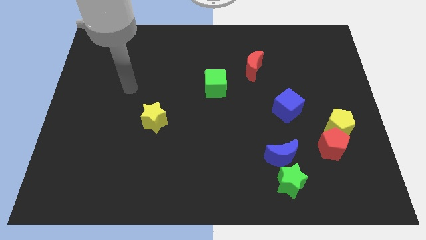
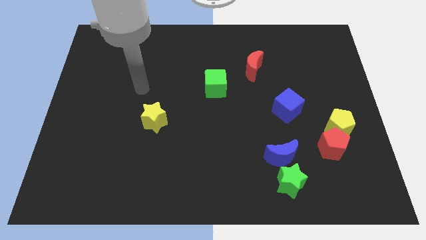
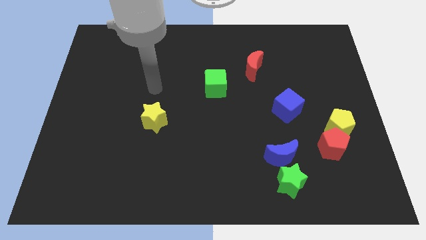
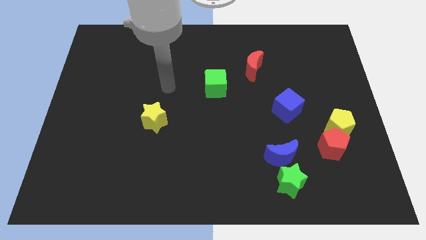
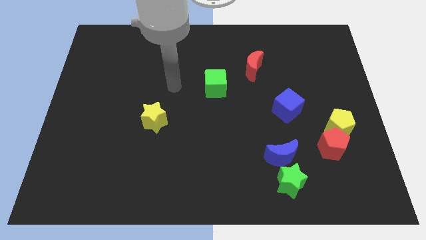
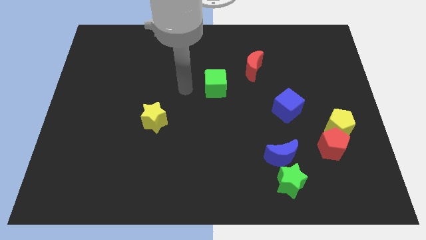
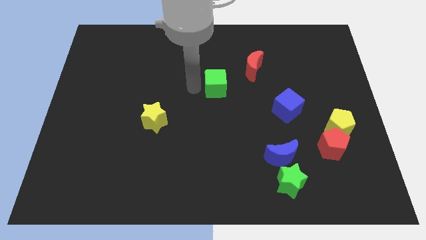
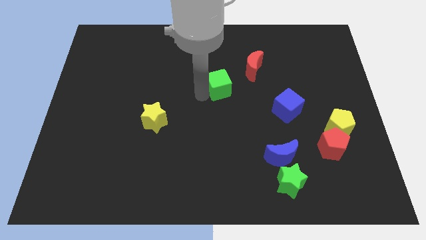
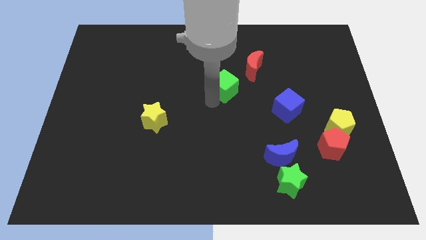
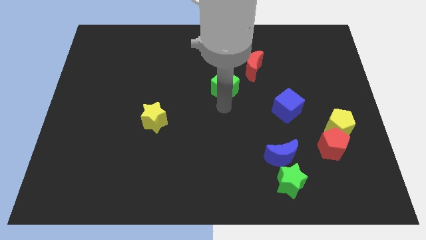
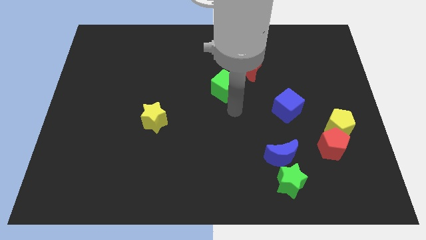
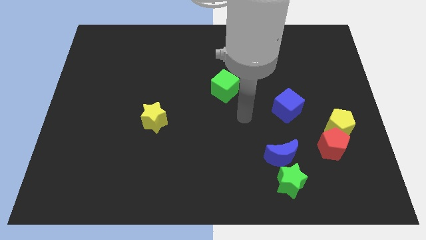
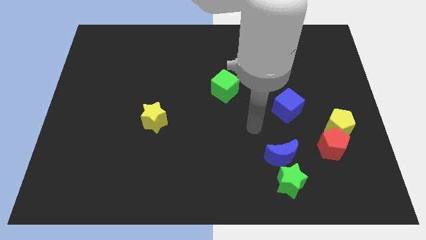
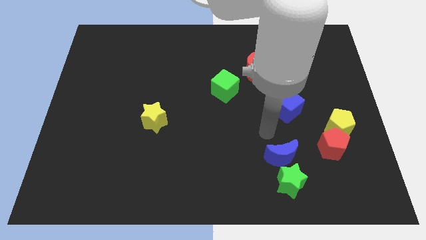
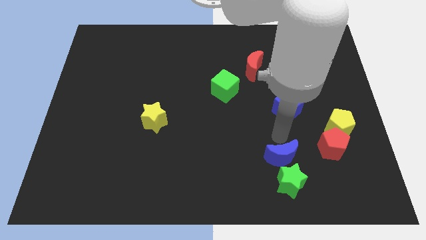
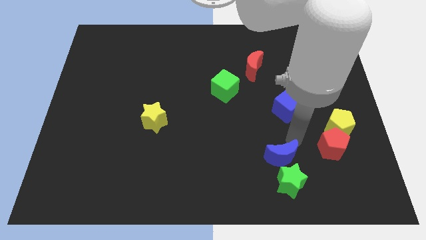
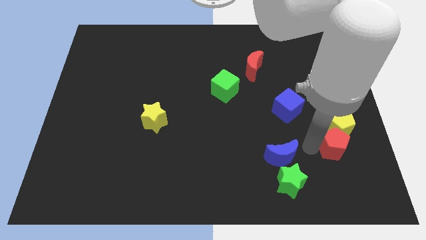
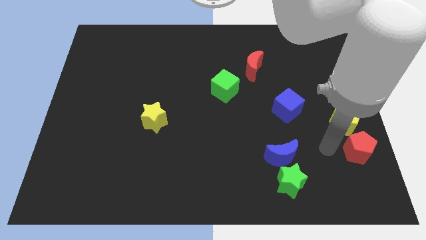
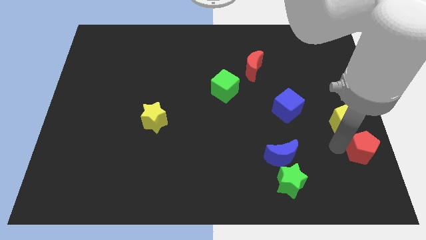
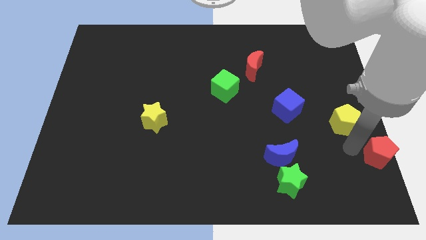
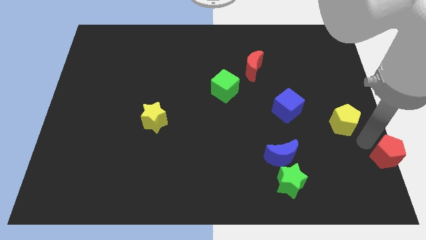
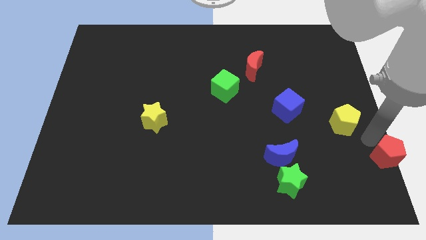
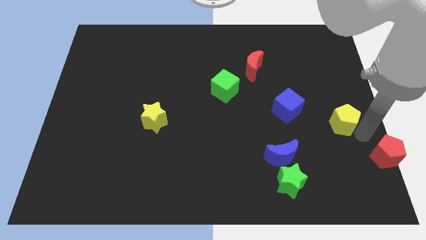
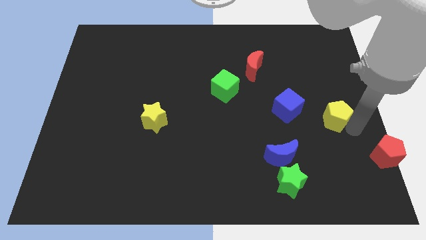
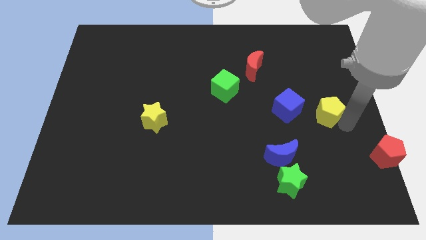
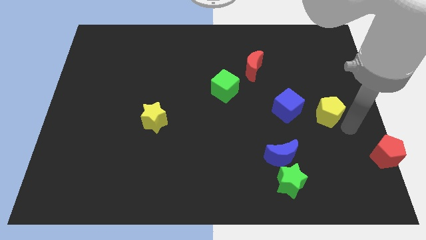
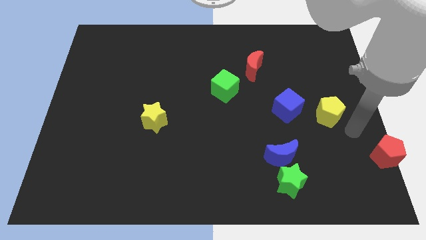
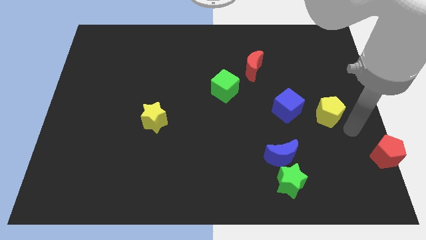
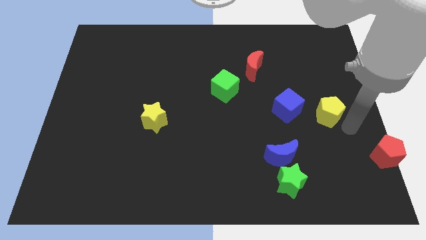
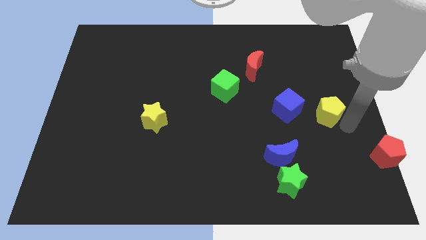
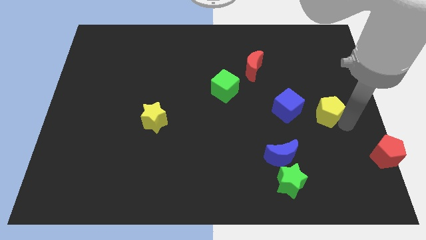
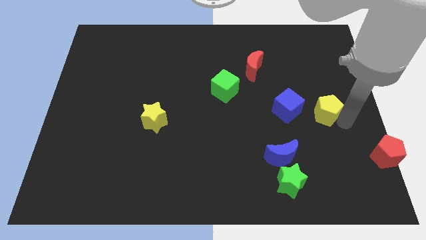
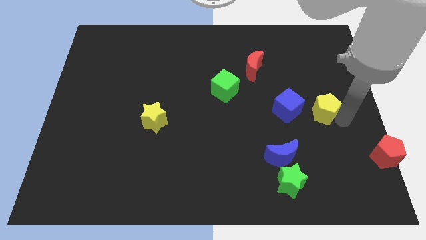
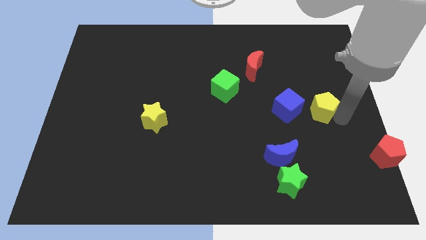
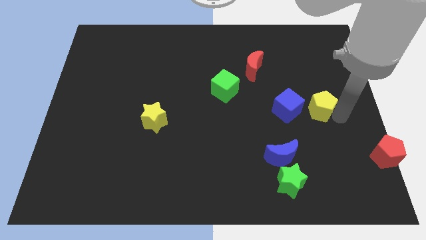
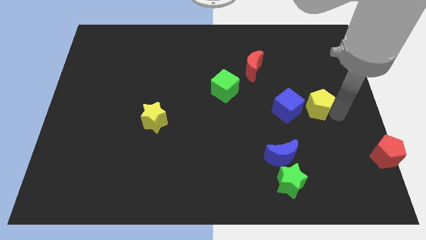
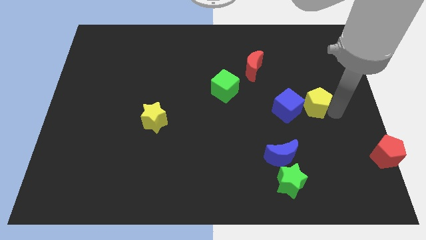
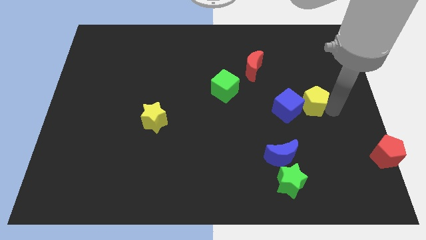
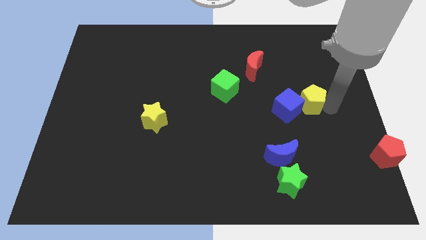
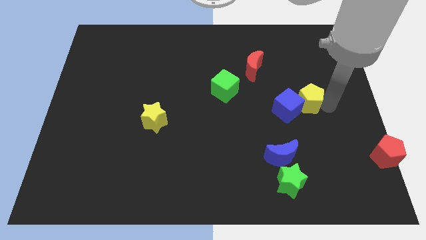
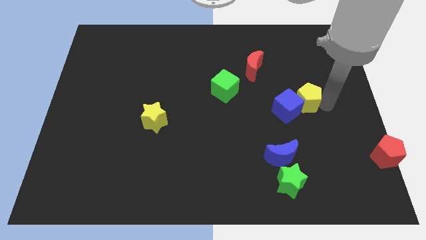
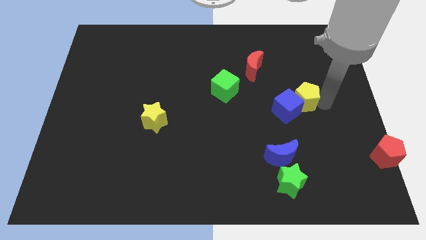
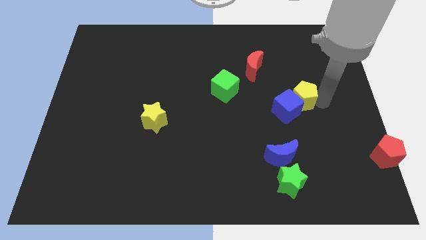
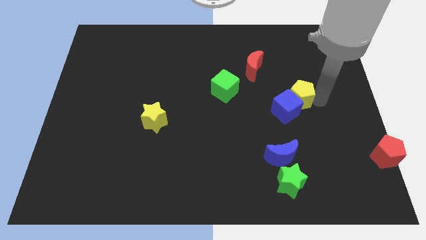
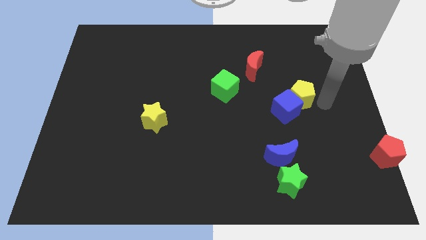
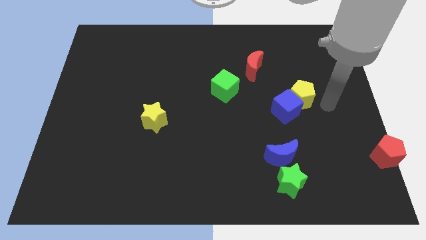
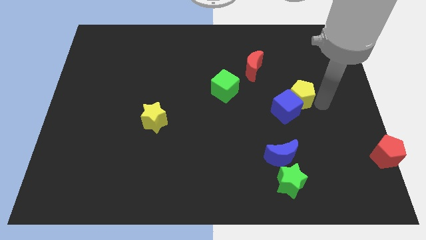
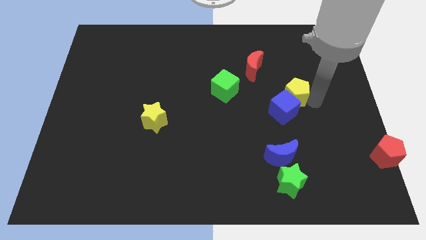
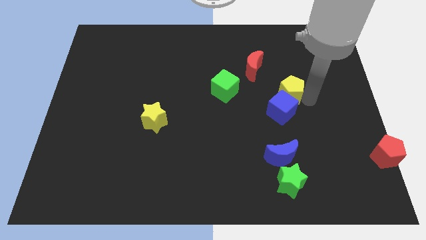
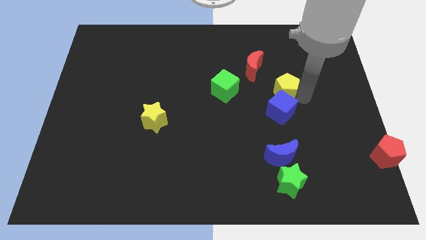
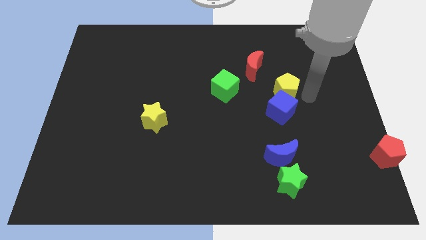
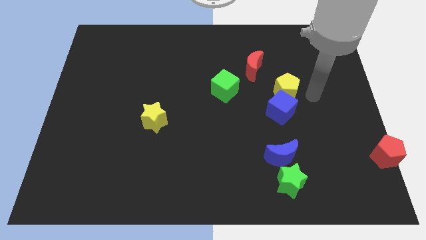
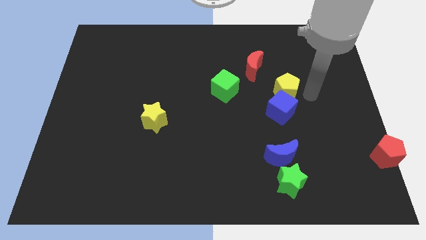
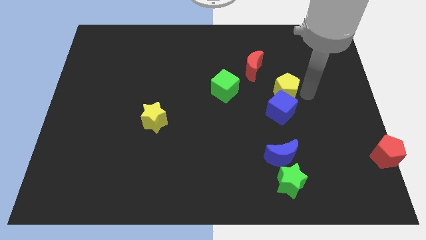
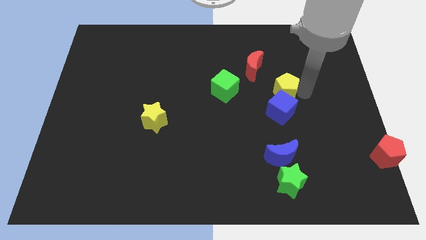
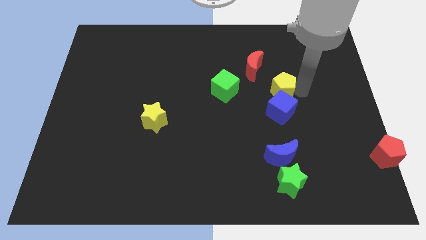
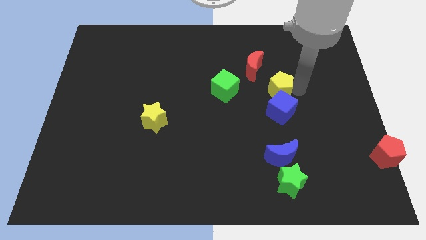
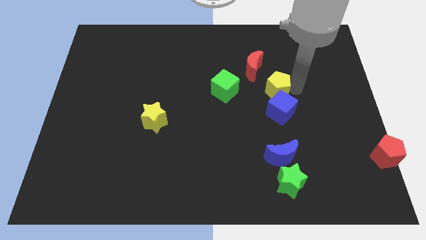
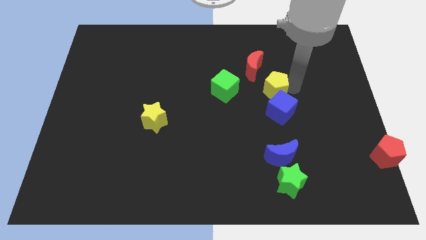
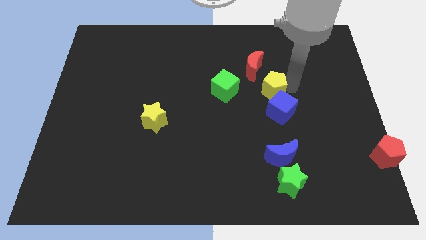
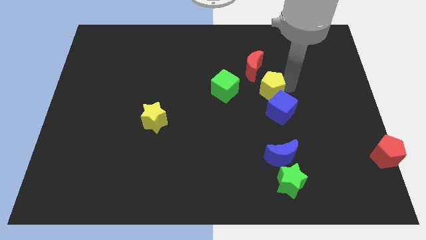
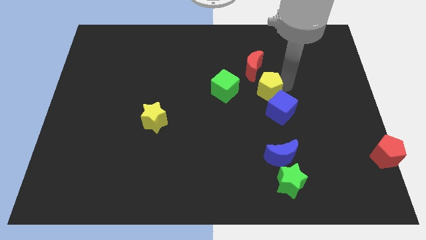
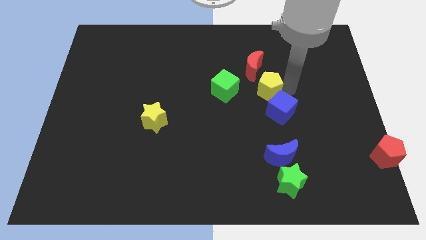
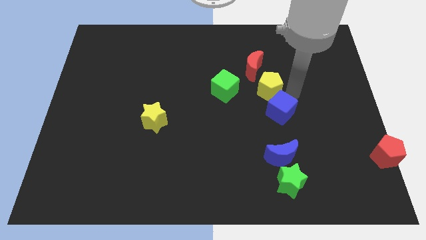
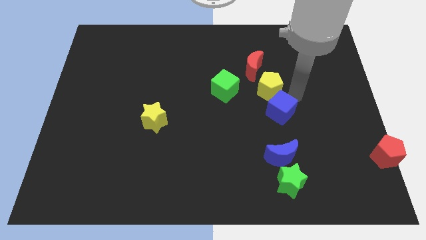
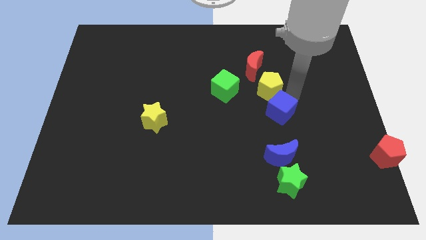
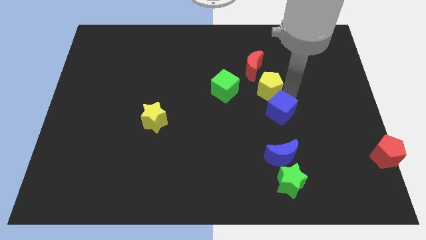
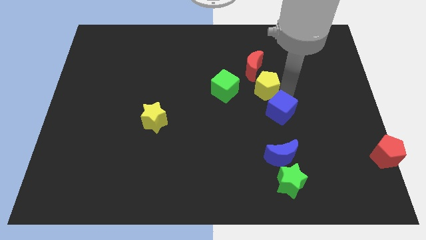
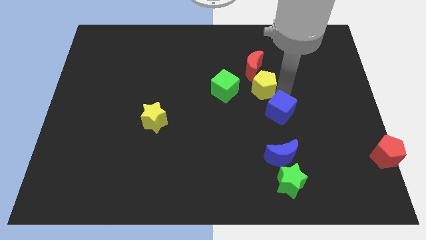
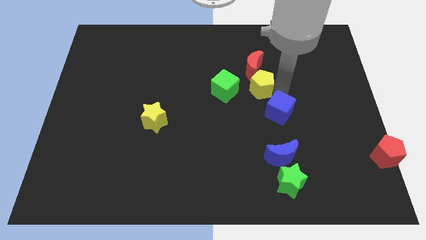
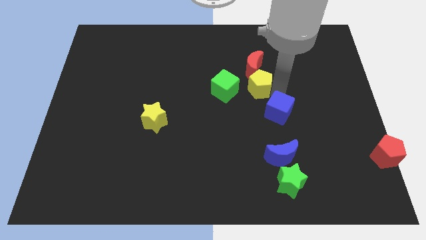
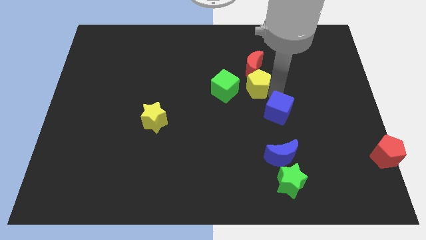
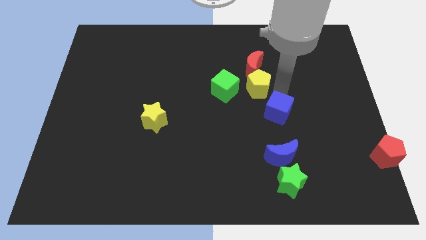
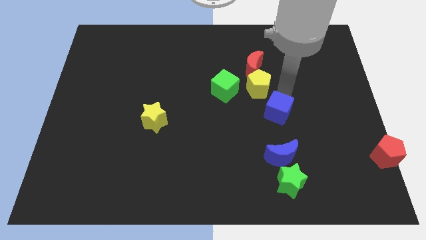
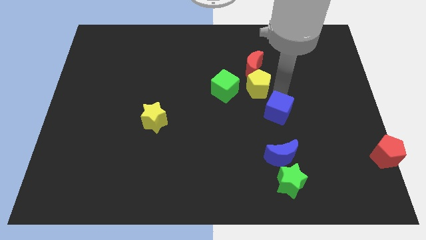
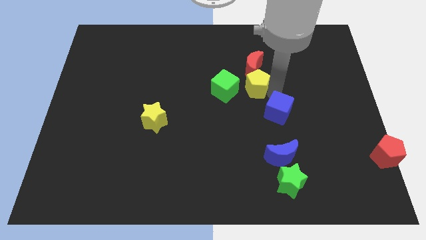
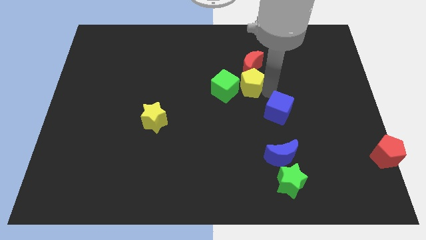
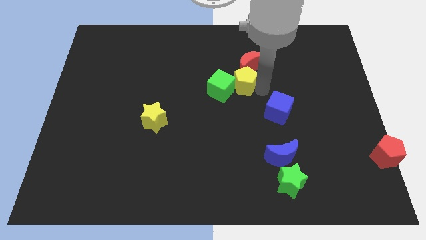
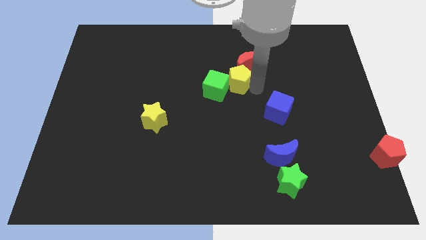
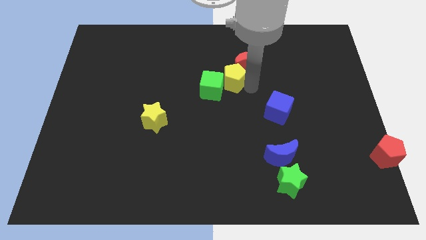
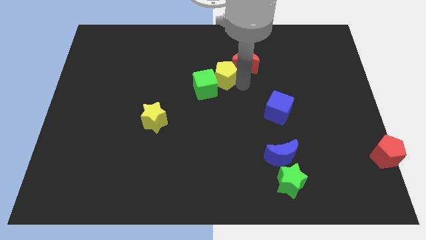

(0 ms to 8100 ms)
put the yellow pentagon to the left of the red moon
